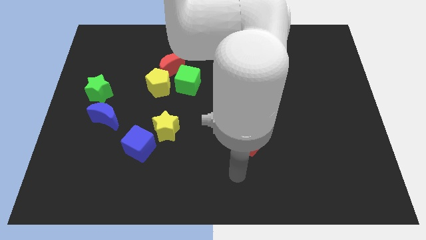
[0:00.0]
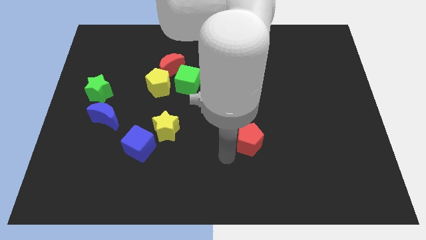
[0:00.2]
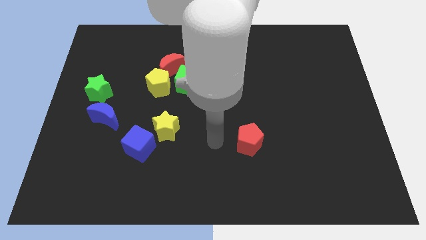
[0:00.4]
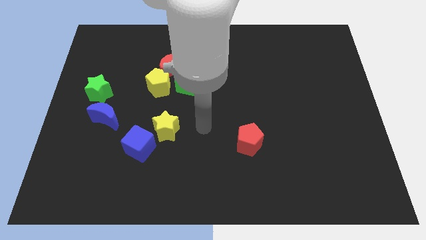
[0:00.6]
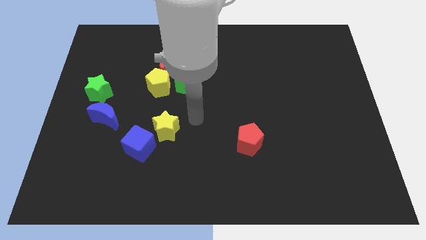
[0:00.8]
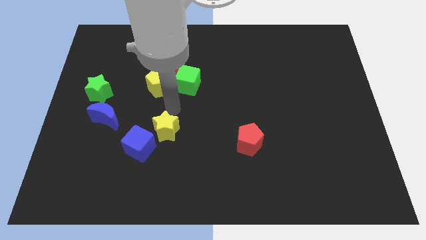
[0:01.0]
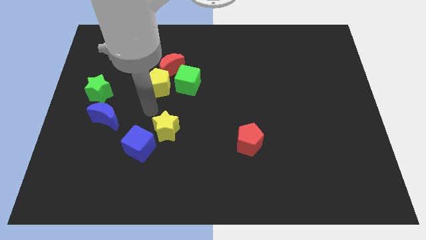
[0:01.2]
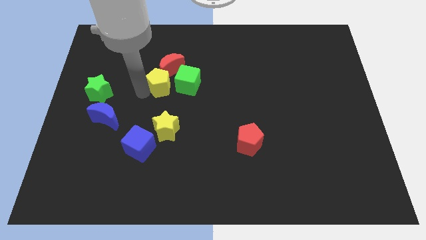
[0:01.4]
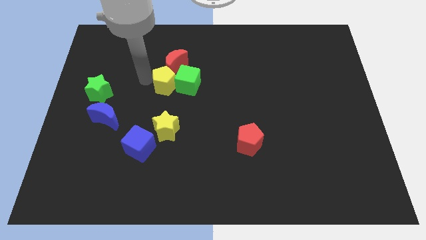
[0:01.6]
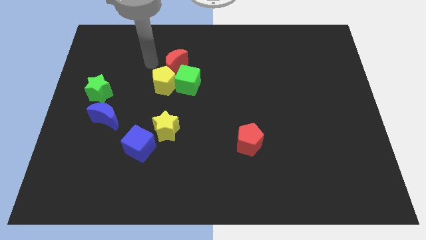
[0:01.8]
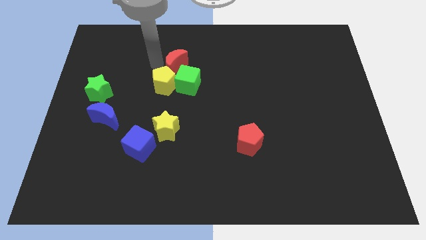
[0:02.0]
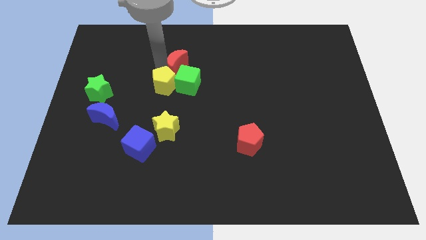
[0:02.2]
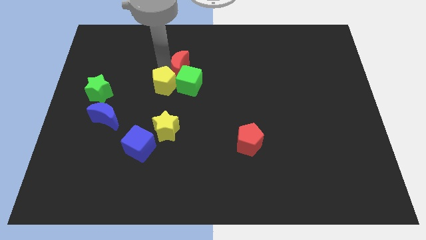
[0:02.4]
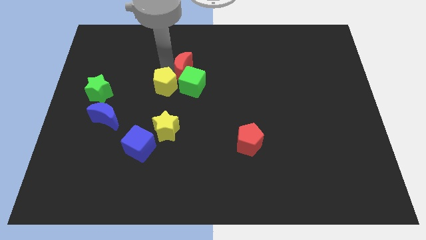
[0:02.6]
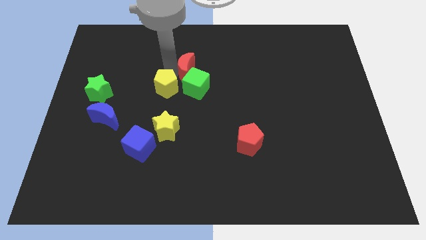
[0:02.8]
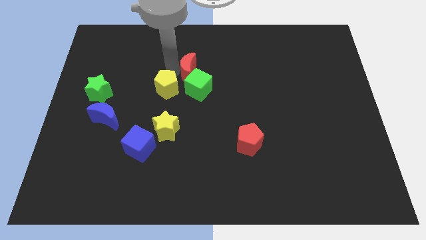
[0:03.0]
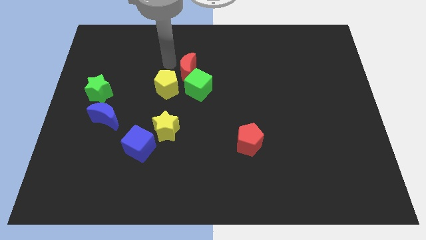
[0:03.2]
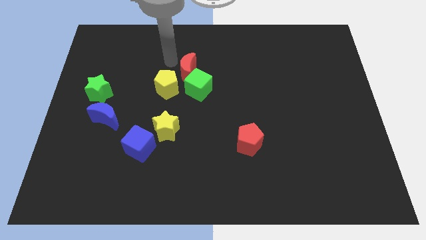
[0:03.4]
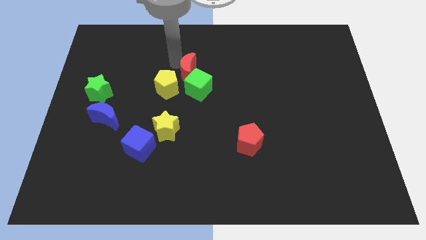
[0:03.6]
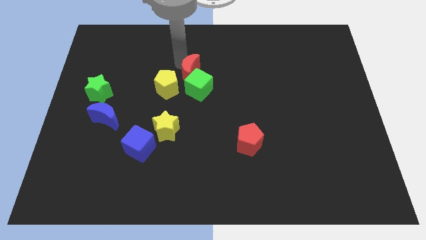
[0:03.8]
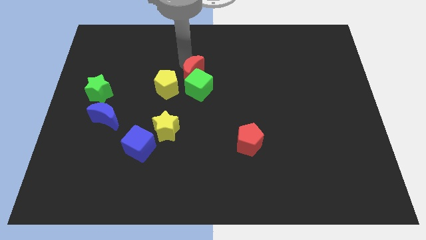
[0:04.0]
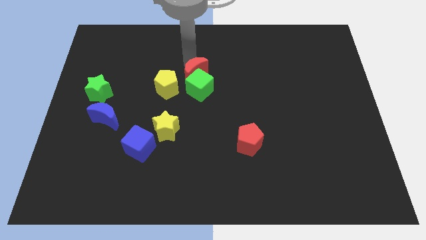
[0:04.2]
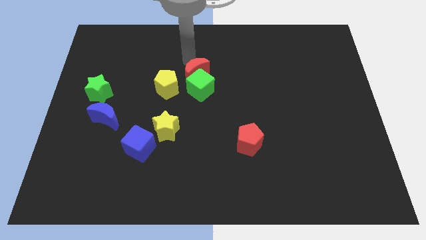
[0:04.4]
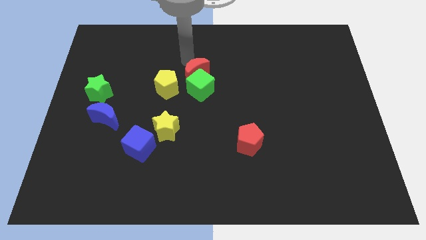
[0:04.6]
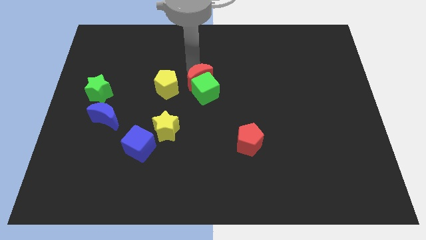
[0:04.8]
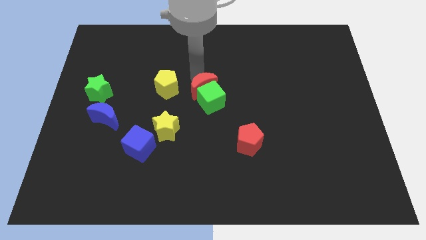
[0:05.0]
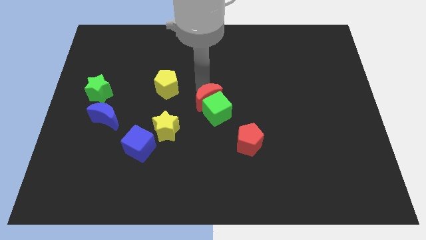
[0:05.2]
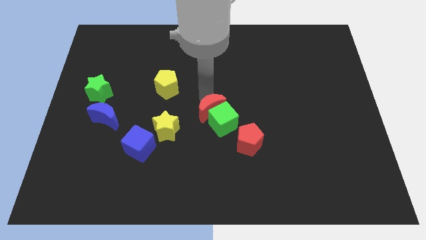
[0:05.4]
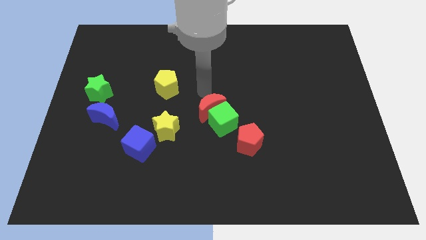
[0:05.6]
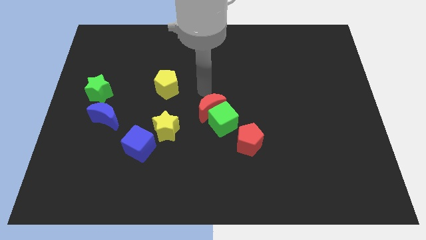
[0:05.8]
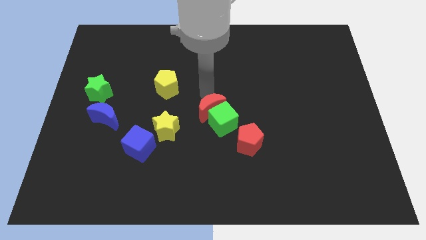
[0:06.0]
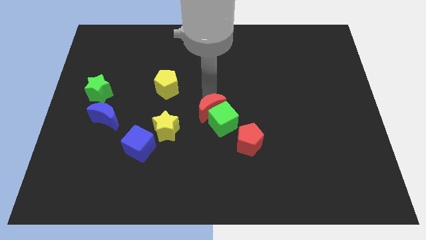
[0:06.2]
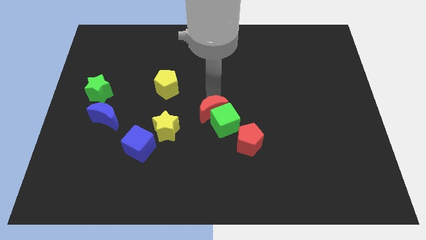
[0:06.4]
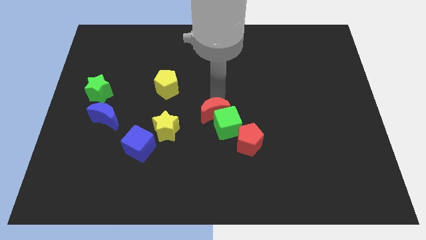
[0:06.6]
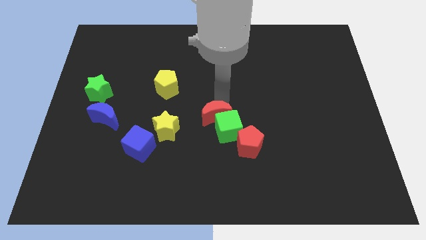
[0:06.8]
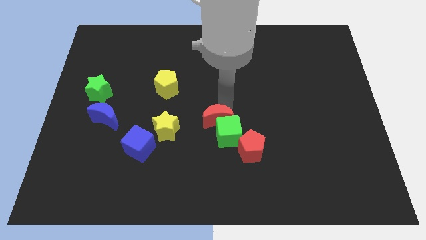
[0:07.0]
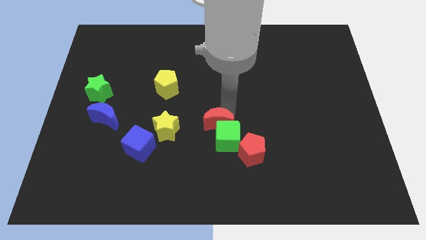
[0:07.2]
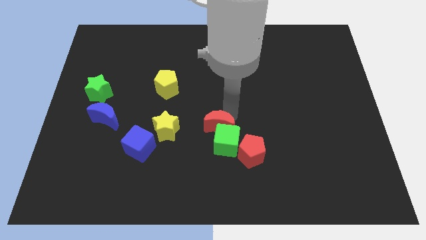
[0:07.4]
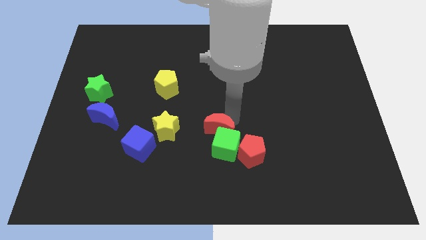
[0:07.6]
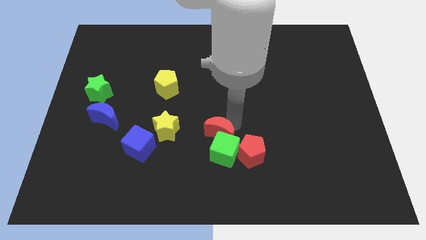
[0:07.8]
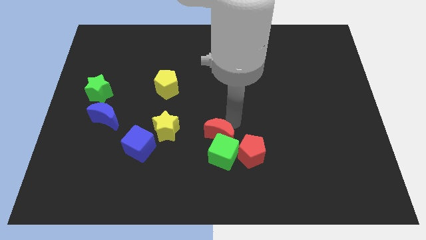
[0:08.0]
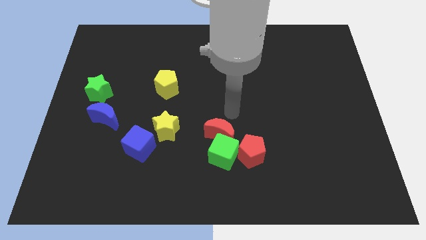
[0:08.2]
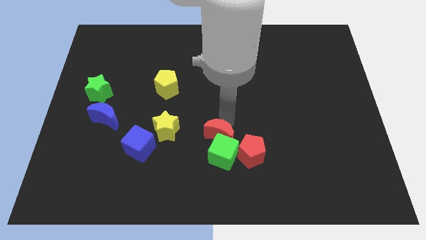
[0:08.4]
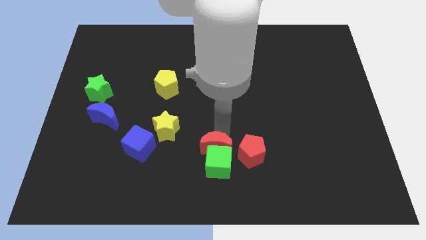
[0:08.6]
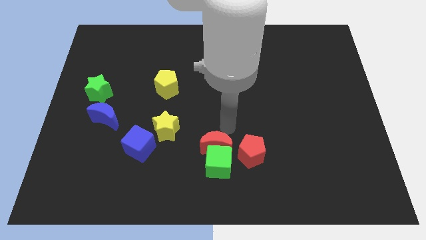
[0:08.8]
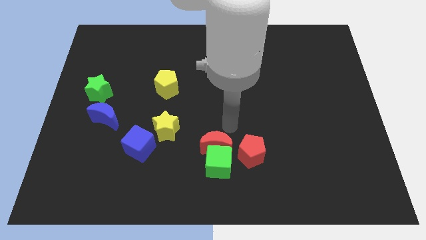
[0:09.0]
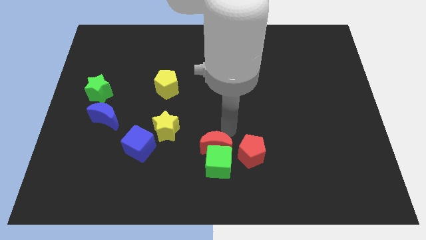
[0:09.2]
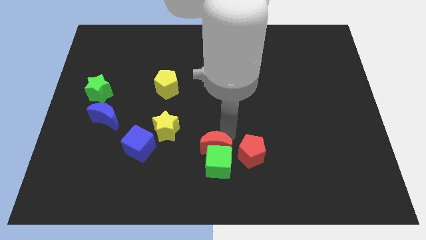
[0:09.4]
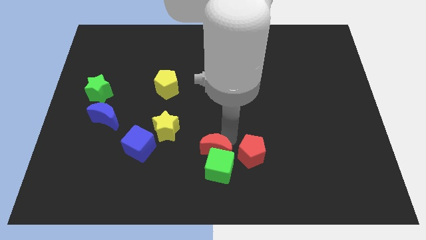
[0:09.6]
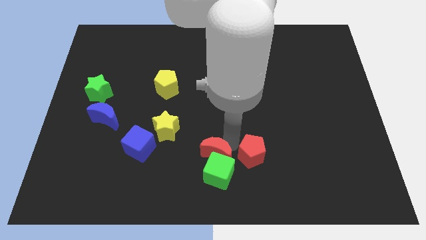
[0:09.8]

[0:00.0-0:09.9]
move the red moon to the bottom side

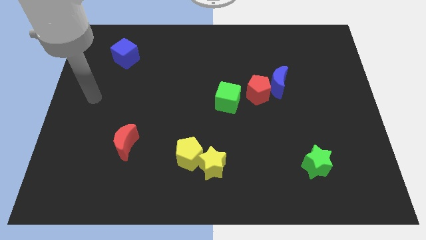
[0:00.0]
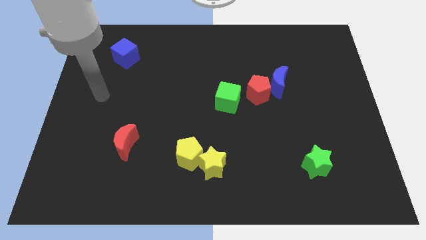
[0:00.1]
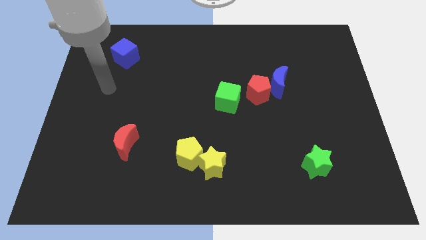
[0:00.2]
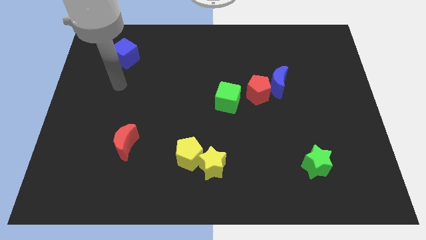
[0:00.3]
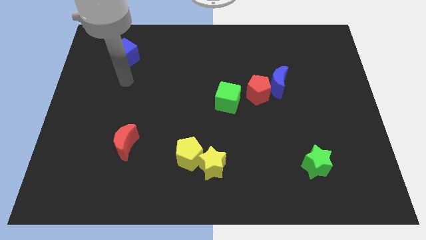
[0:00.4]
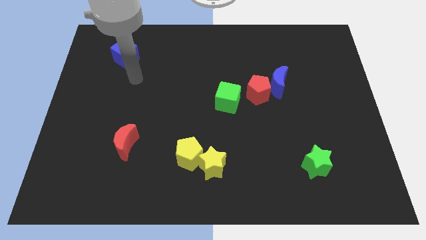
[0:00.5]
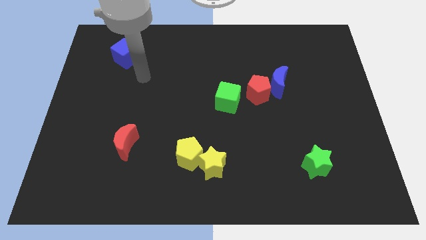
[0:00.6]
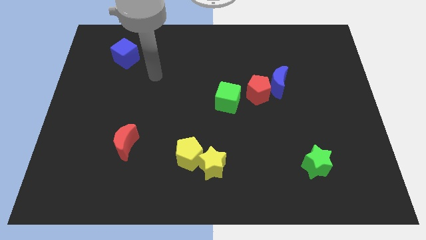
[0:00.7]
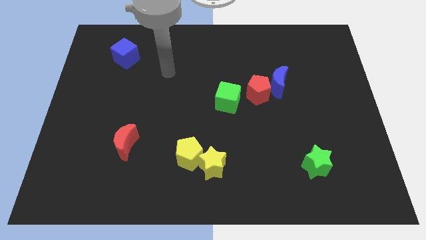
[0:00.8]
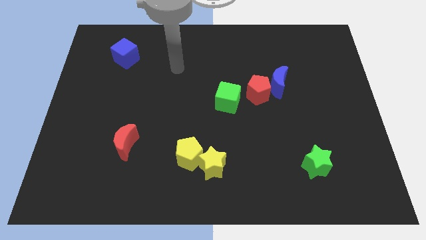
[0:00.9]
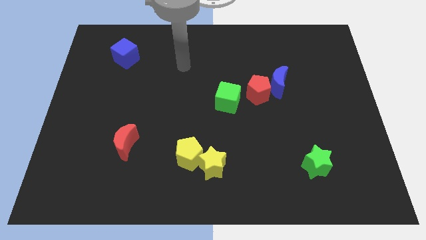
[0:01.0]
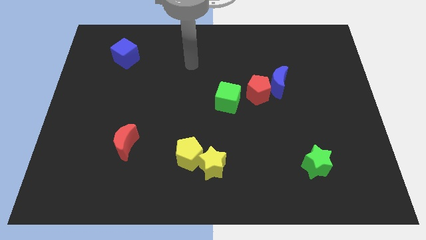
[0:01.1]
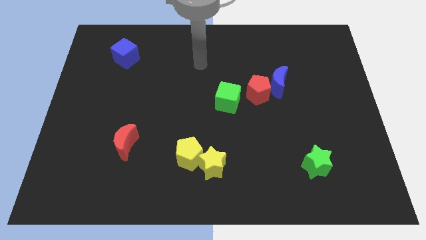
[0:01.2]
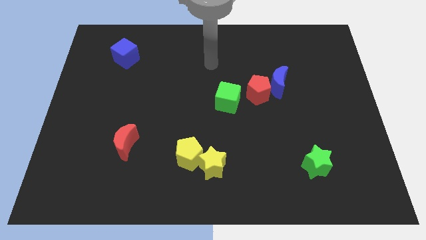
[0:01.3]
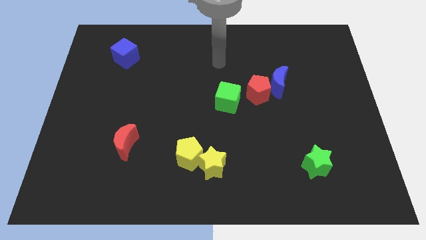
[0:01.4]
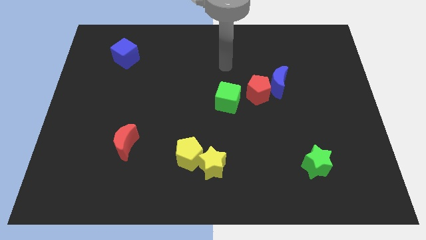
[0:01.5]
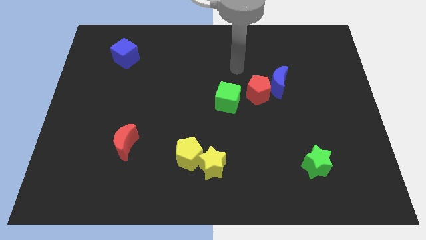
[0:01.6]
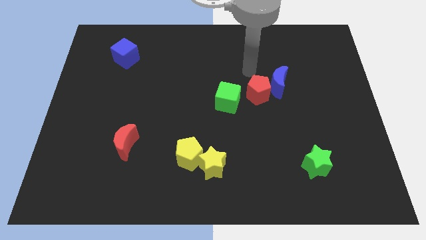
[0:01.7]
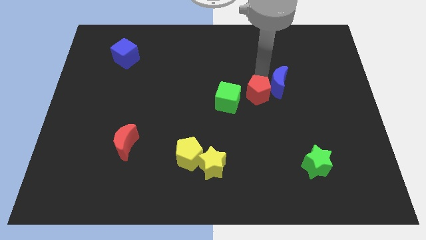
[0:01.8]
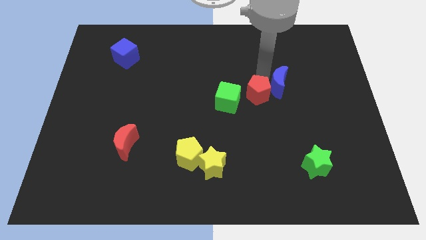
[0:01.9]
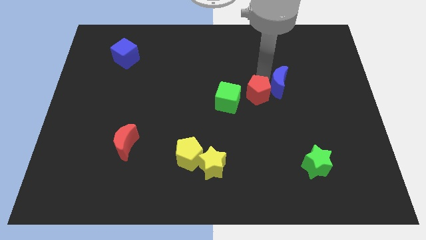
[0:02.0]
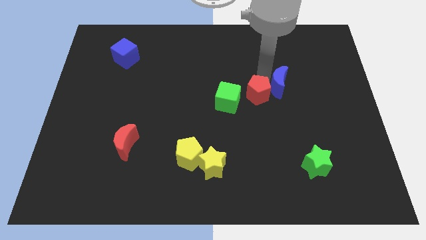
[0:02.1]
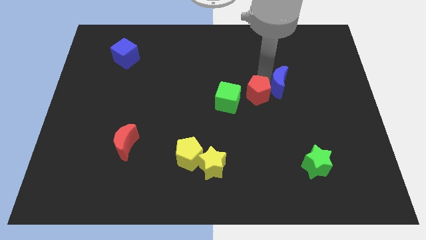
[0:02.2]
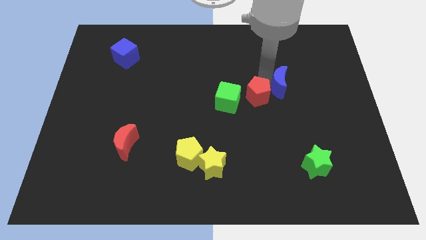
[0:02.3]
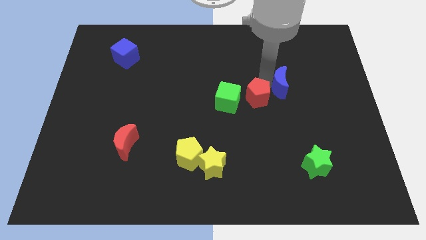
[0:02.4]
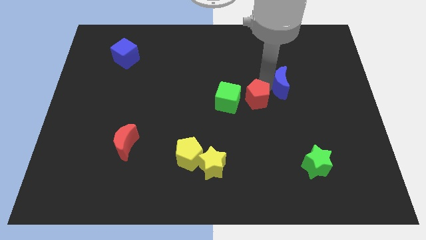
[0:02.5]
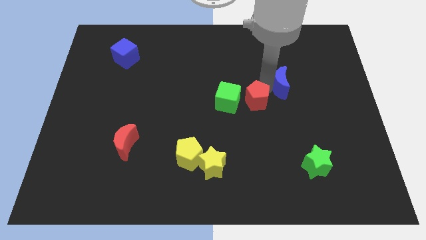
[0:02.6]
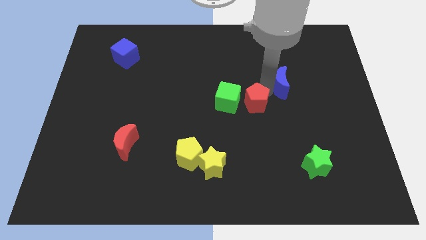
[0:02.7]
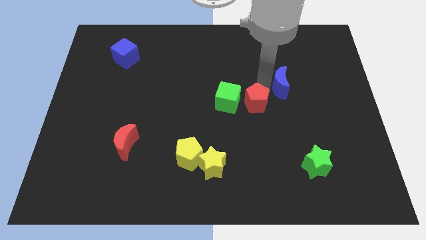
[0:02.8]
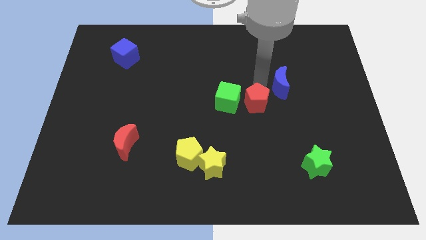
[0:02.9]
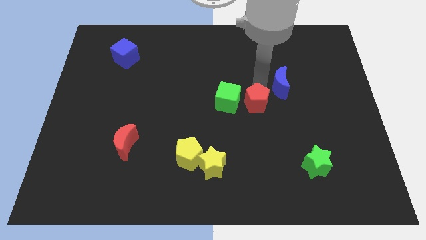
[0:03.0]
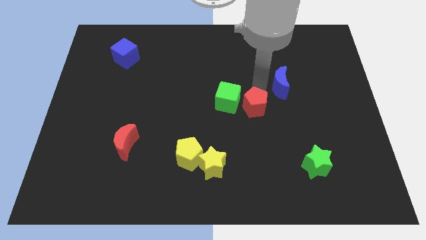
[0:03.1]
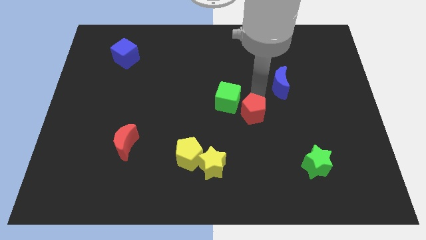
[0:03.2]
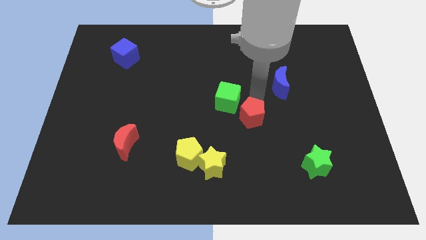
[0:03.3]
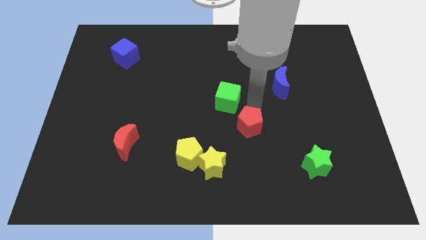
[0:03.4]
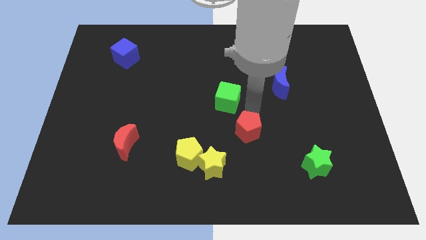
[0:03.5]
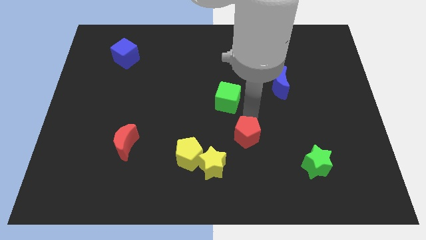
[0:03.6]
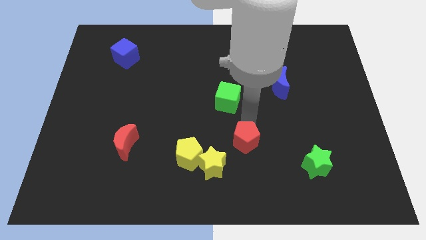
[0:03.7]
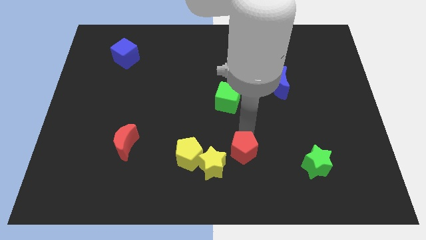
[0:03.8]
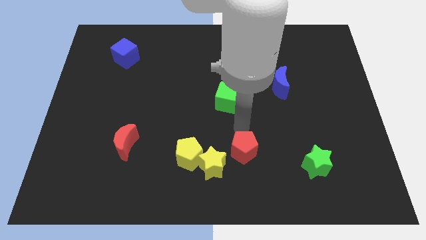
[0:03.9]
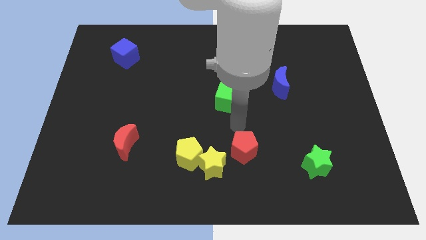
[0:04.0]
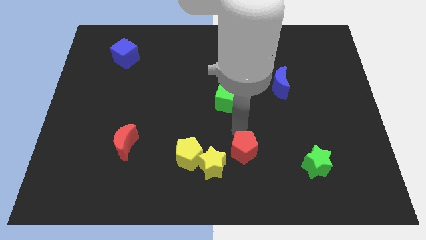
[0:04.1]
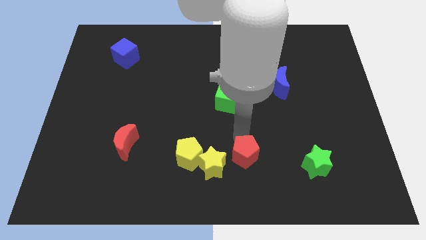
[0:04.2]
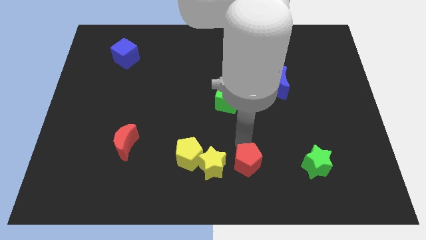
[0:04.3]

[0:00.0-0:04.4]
move the red pentagon to the bottom
